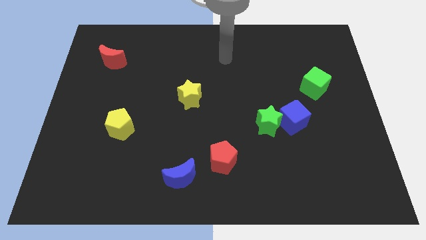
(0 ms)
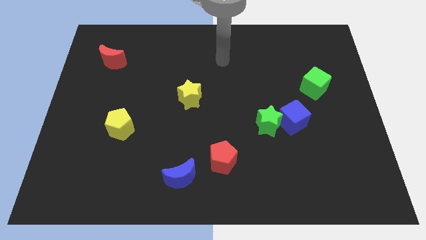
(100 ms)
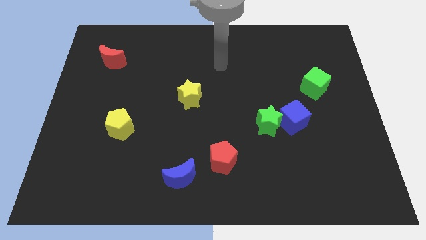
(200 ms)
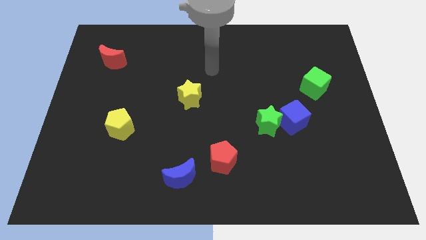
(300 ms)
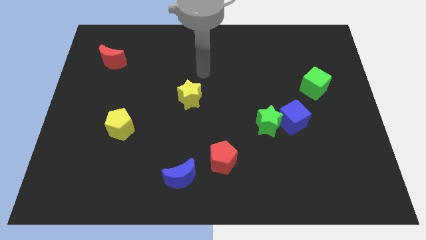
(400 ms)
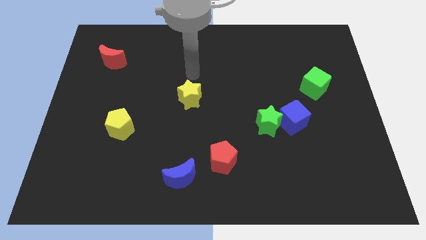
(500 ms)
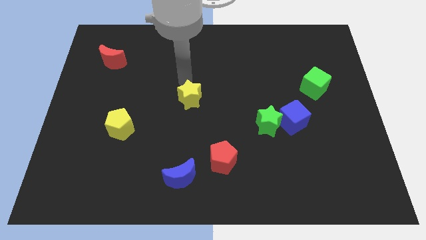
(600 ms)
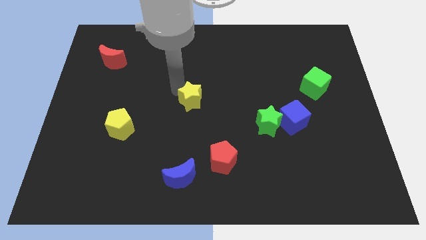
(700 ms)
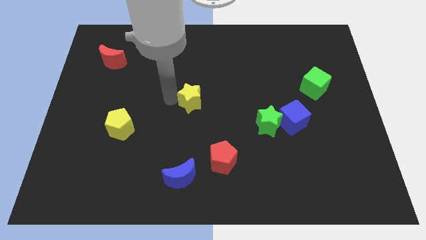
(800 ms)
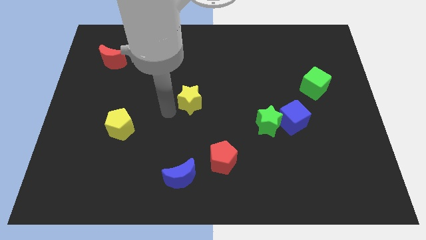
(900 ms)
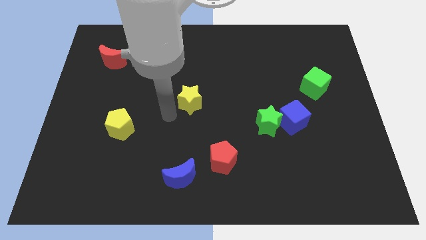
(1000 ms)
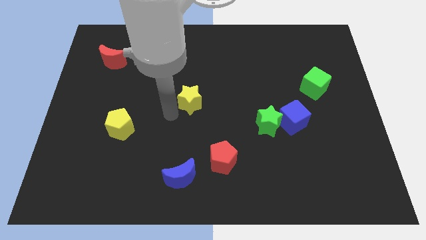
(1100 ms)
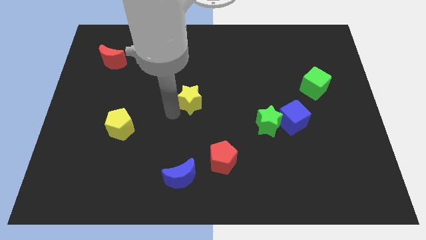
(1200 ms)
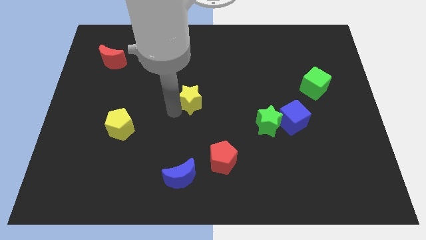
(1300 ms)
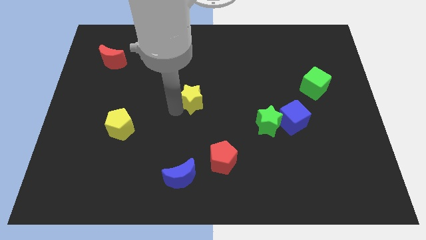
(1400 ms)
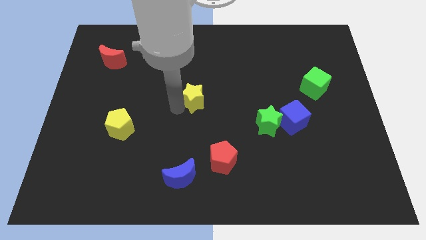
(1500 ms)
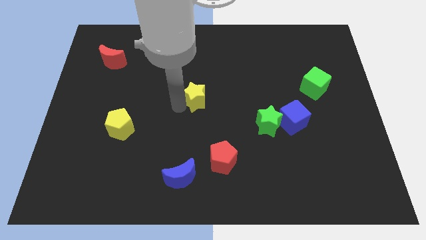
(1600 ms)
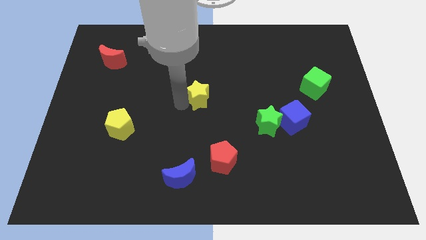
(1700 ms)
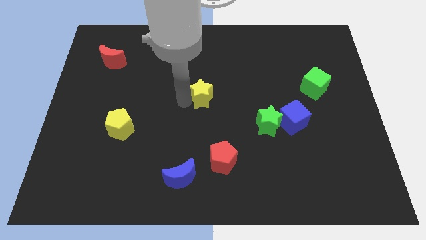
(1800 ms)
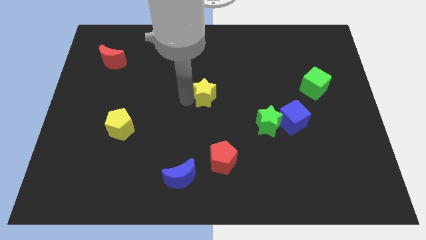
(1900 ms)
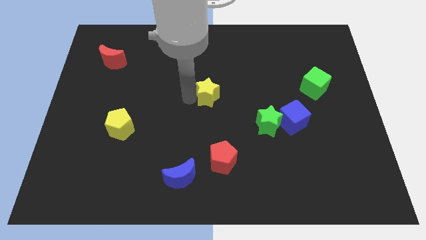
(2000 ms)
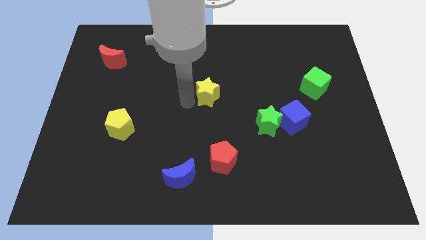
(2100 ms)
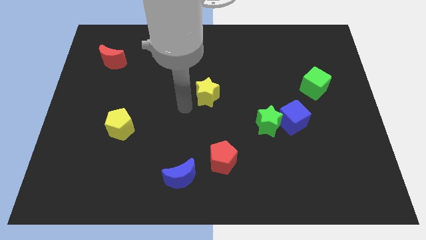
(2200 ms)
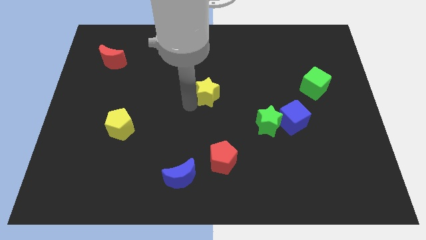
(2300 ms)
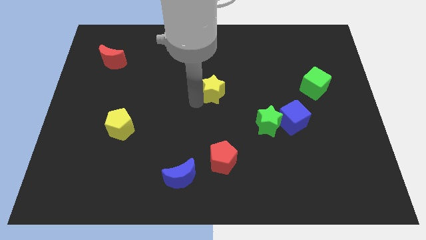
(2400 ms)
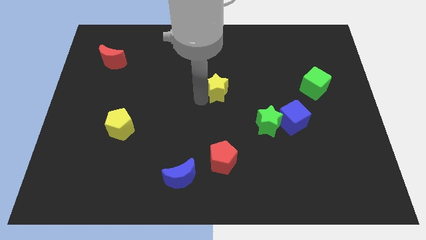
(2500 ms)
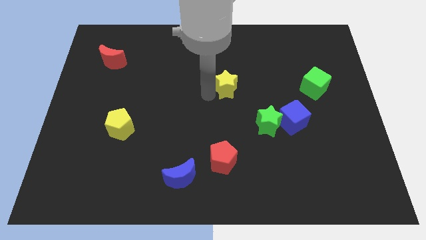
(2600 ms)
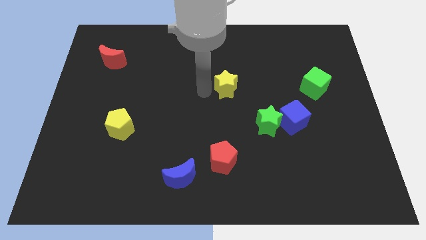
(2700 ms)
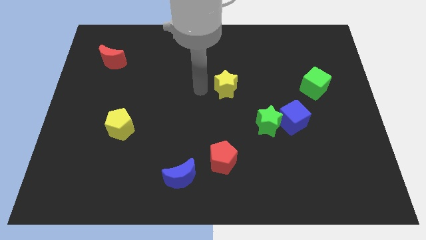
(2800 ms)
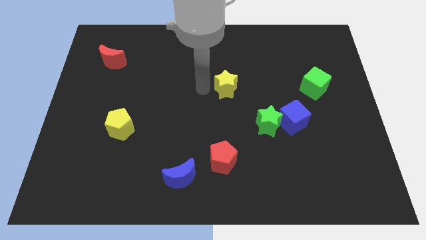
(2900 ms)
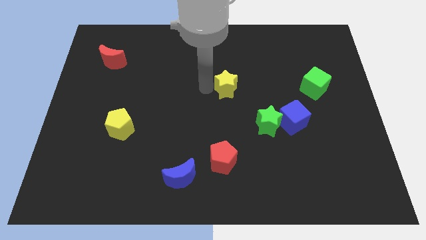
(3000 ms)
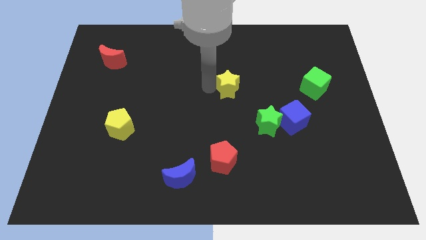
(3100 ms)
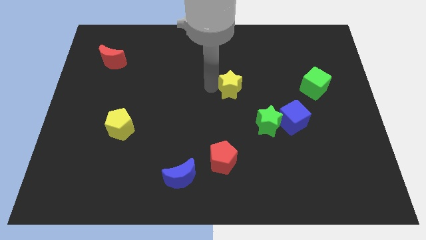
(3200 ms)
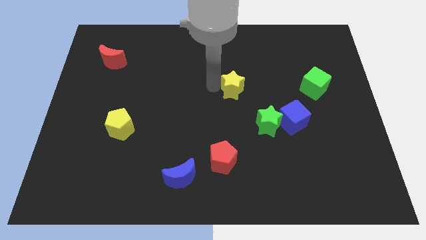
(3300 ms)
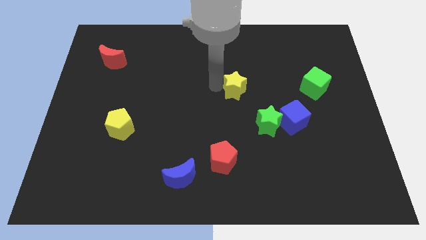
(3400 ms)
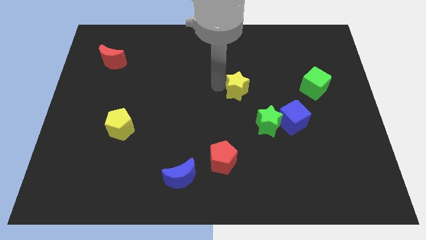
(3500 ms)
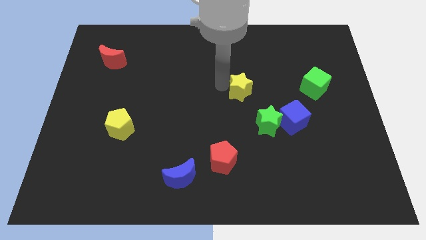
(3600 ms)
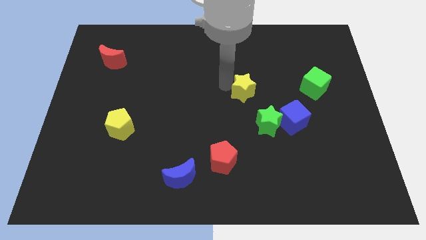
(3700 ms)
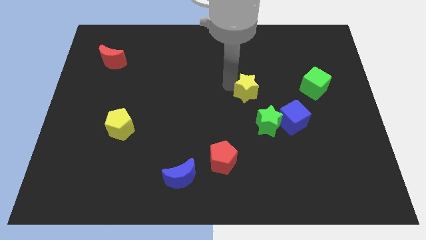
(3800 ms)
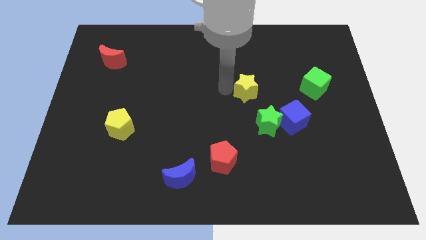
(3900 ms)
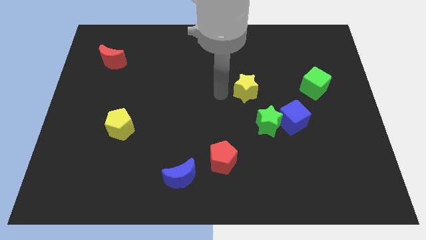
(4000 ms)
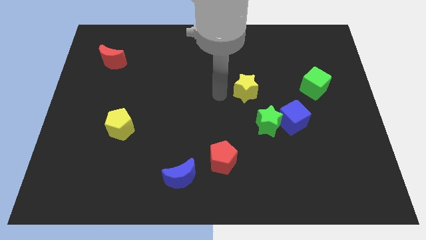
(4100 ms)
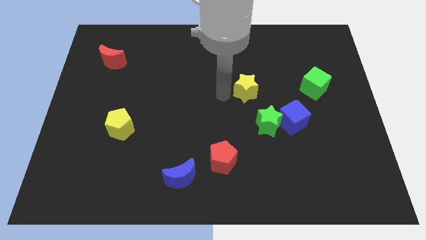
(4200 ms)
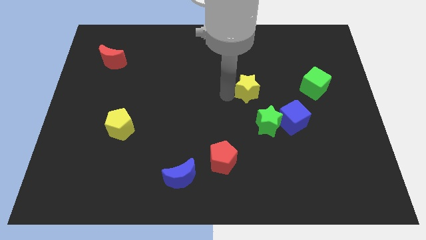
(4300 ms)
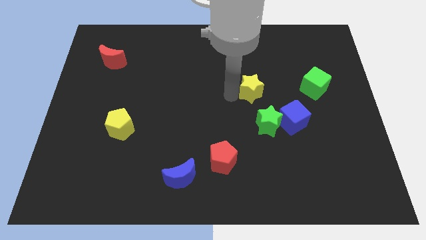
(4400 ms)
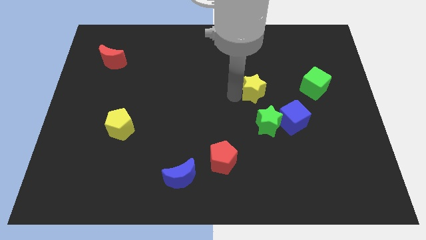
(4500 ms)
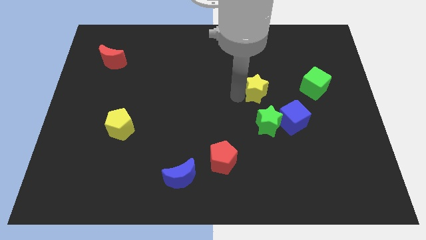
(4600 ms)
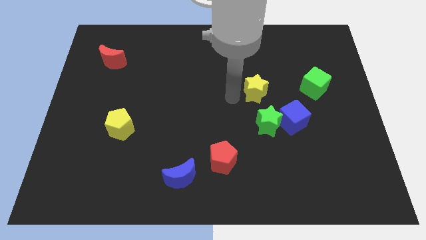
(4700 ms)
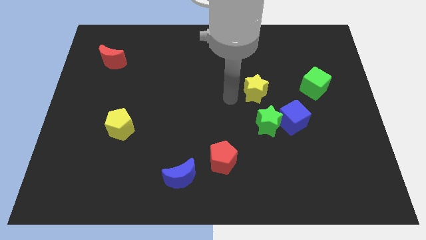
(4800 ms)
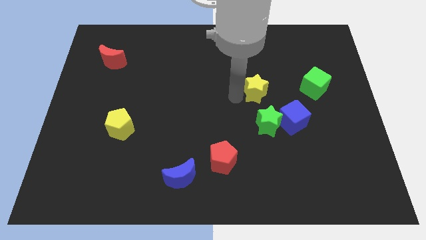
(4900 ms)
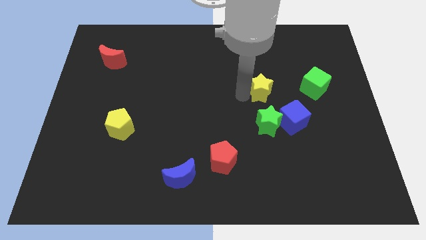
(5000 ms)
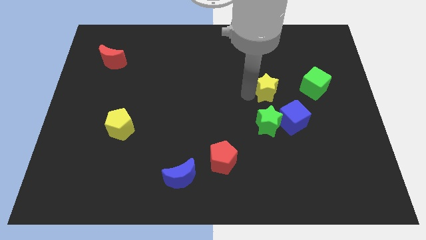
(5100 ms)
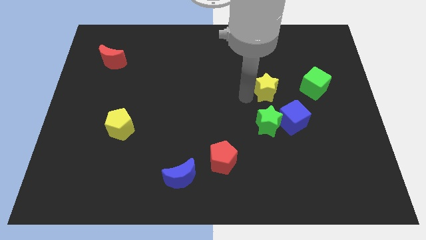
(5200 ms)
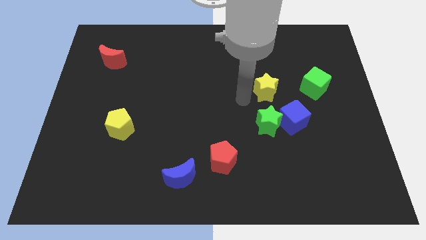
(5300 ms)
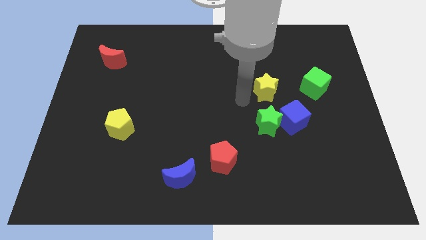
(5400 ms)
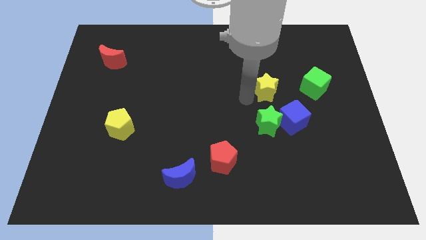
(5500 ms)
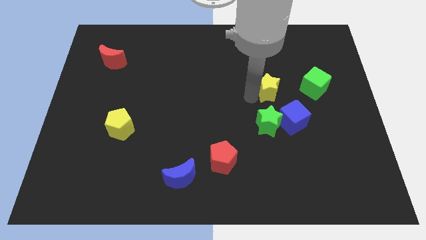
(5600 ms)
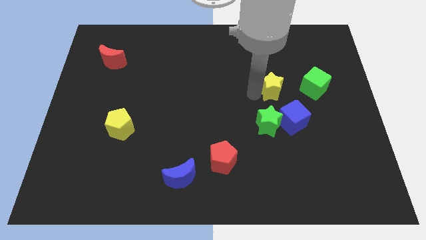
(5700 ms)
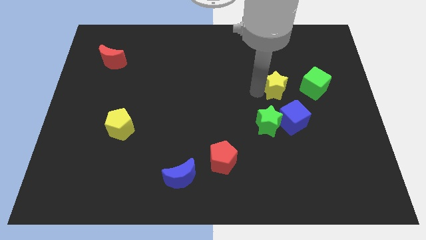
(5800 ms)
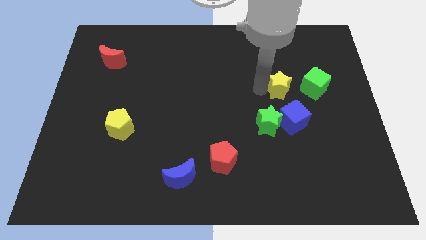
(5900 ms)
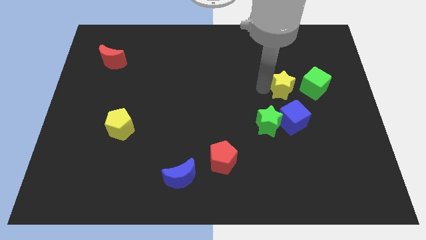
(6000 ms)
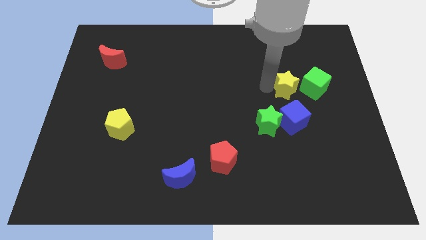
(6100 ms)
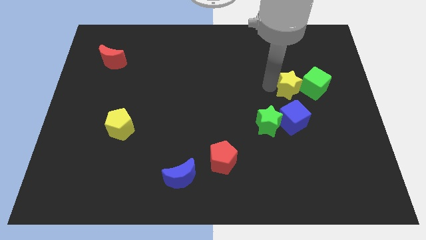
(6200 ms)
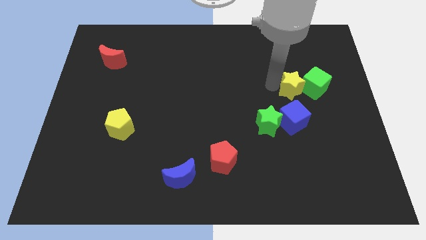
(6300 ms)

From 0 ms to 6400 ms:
slide the yellow star next to the green cube
